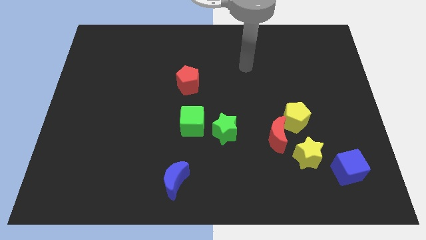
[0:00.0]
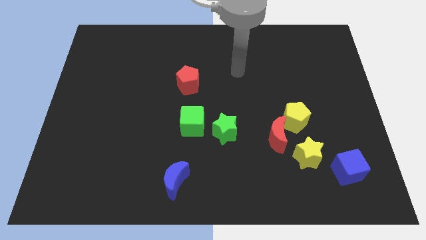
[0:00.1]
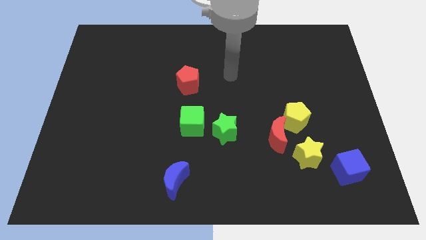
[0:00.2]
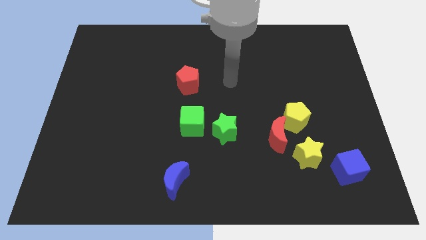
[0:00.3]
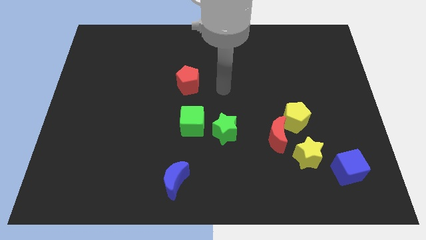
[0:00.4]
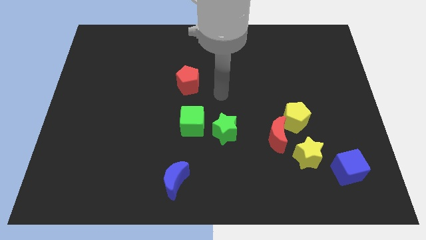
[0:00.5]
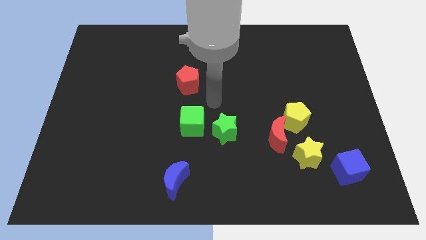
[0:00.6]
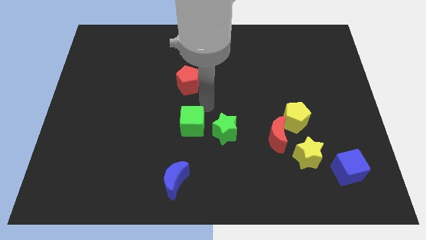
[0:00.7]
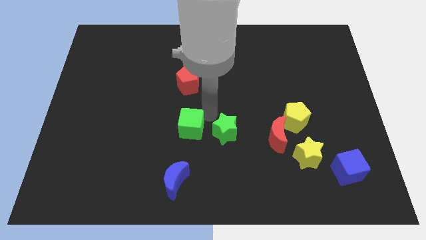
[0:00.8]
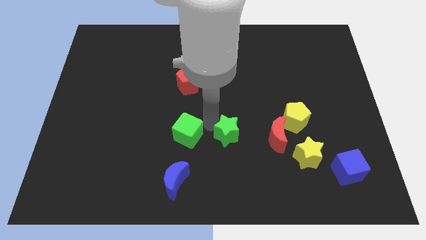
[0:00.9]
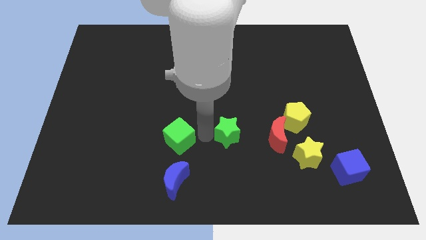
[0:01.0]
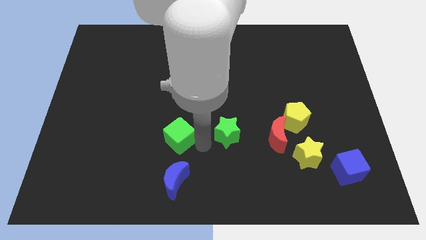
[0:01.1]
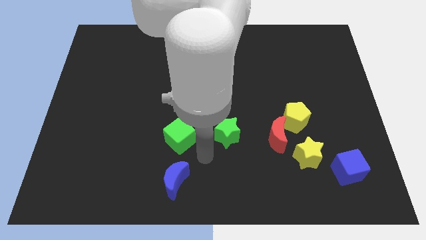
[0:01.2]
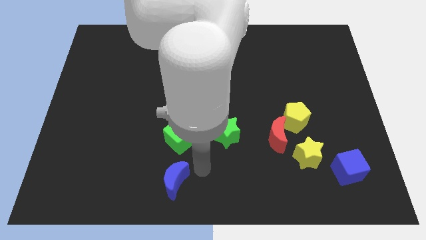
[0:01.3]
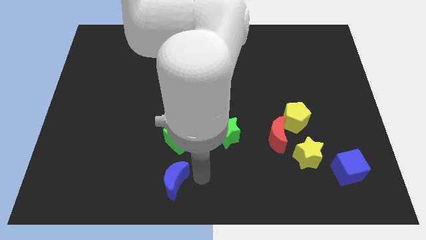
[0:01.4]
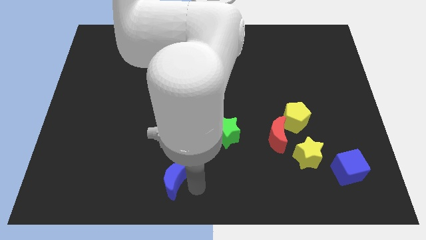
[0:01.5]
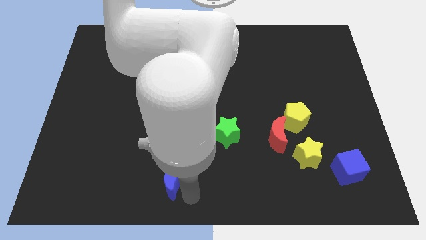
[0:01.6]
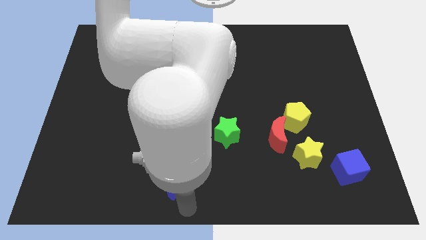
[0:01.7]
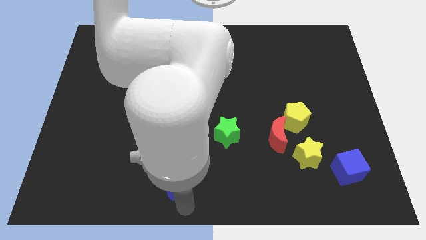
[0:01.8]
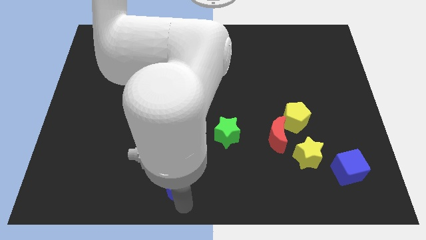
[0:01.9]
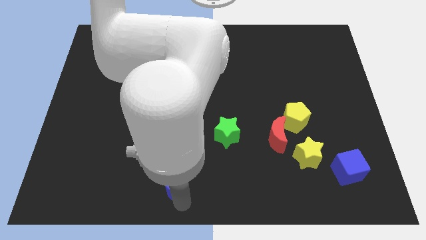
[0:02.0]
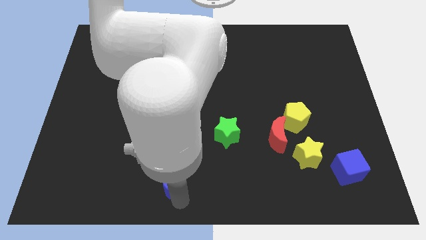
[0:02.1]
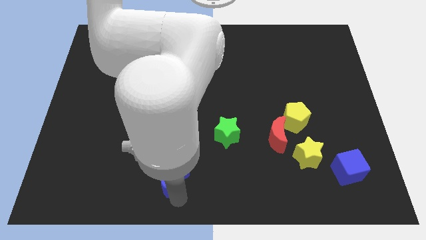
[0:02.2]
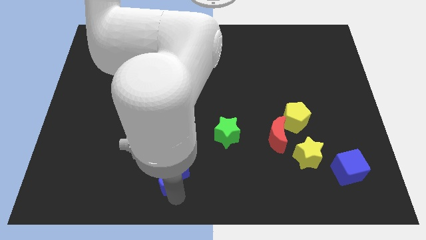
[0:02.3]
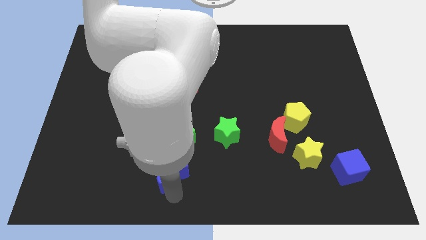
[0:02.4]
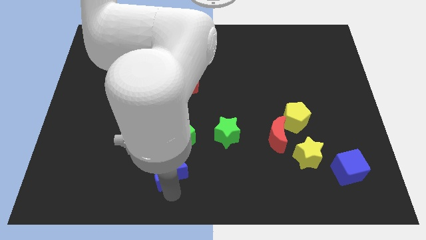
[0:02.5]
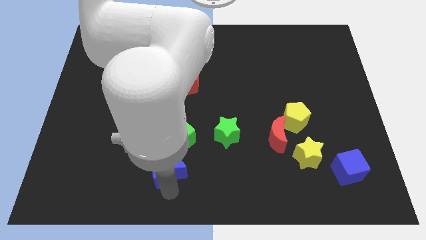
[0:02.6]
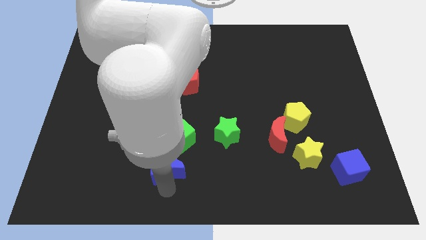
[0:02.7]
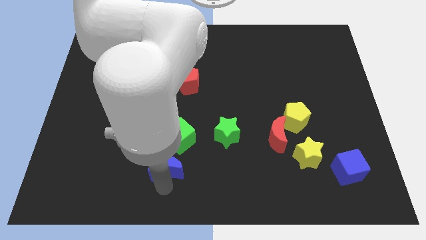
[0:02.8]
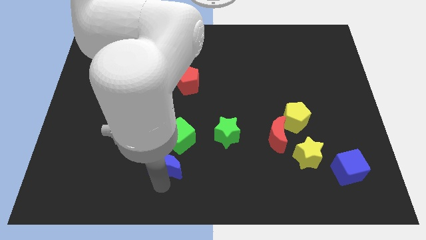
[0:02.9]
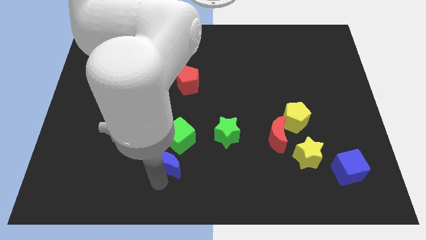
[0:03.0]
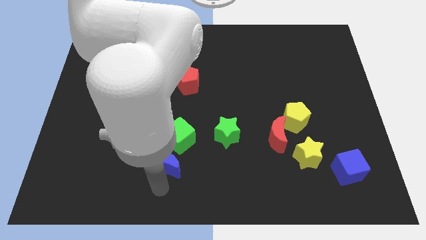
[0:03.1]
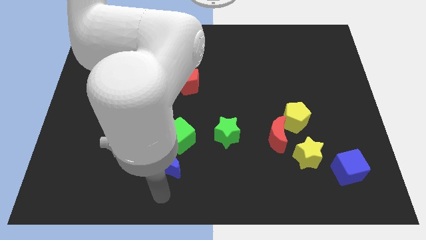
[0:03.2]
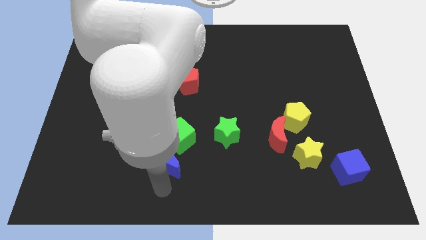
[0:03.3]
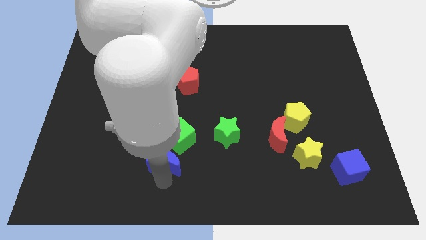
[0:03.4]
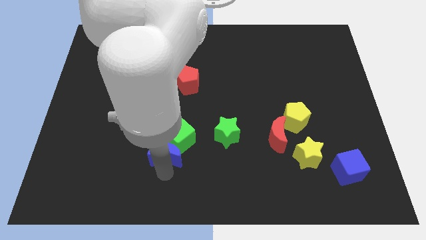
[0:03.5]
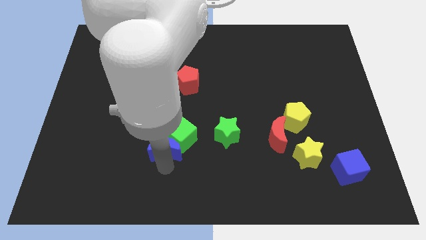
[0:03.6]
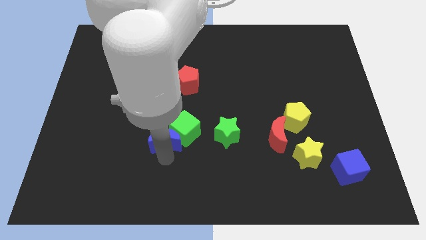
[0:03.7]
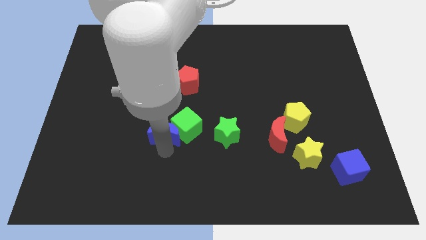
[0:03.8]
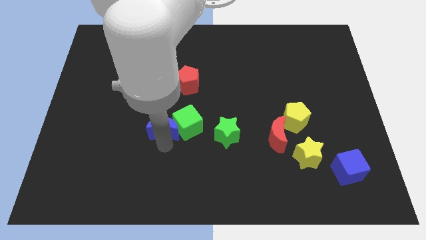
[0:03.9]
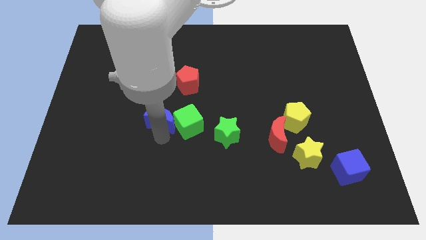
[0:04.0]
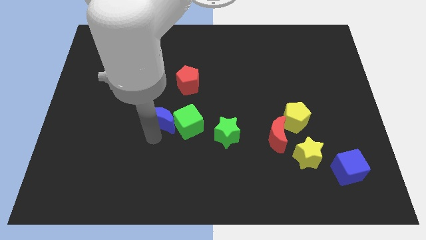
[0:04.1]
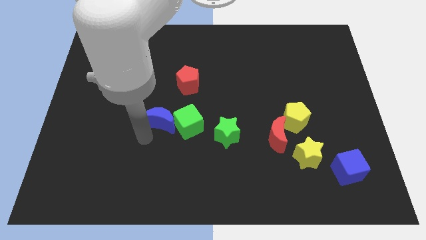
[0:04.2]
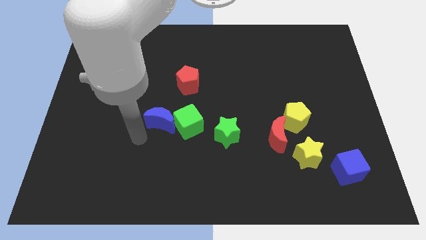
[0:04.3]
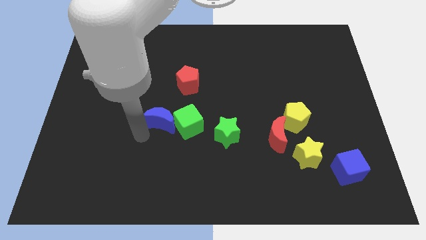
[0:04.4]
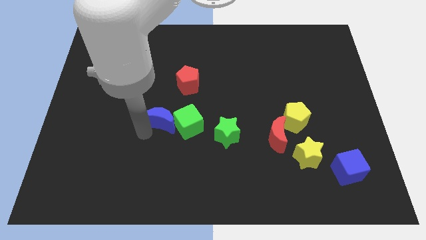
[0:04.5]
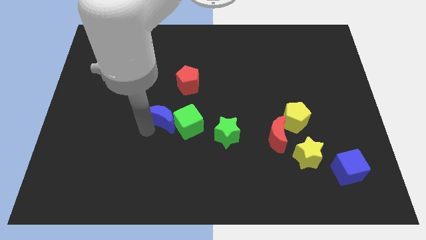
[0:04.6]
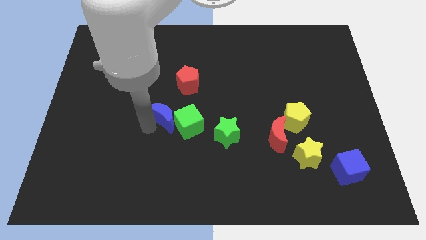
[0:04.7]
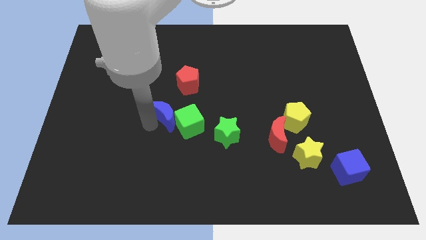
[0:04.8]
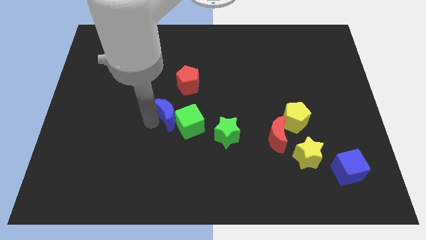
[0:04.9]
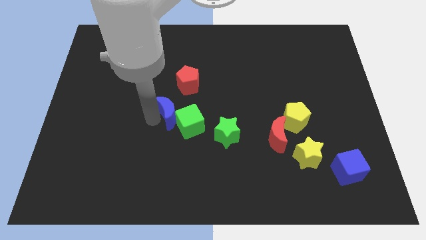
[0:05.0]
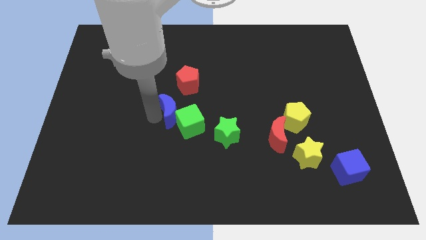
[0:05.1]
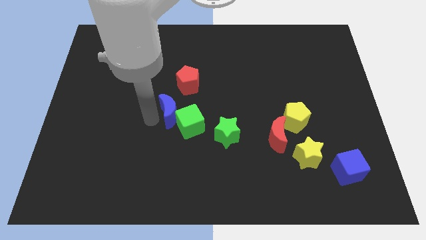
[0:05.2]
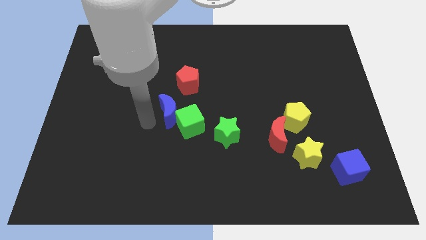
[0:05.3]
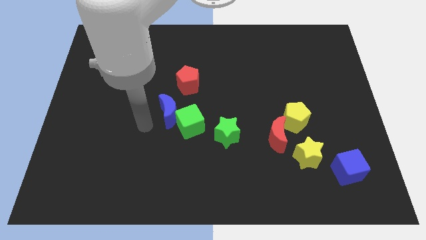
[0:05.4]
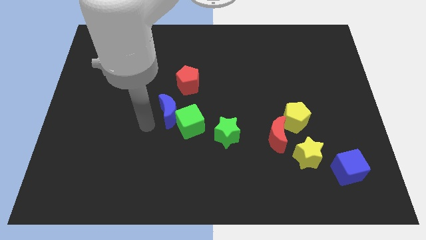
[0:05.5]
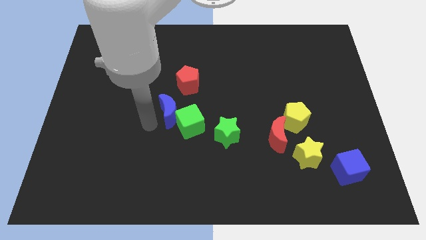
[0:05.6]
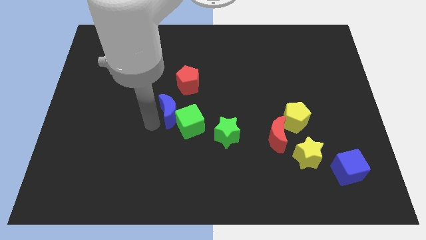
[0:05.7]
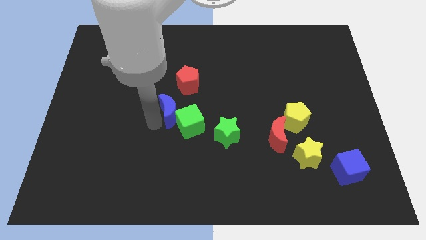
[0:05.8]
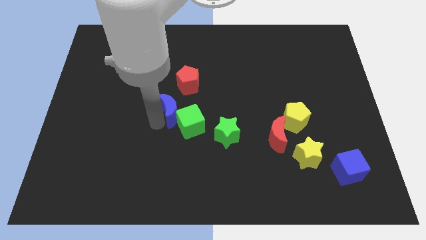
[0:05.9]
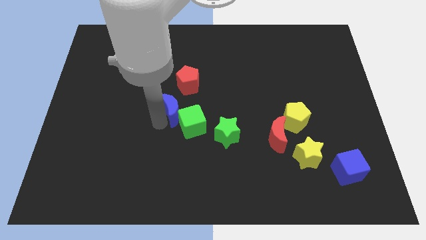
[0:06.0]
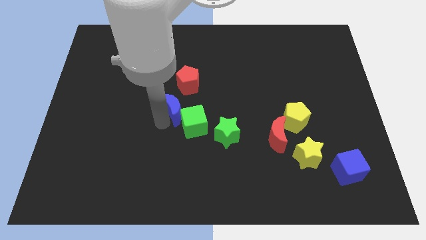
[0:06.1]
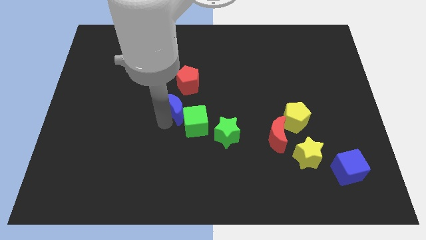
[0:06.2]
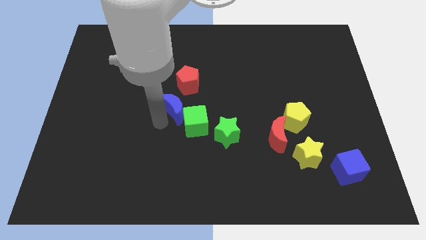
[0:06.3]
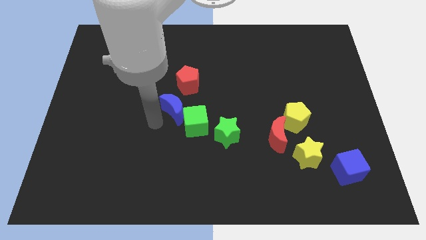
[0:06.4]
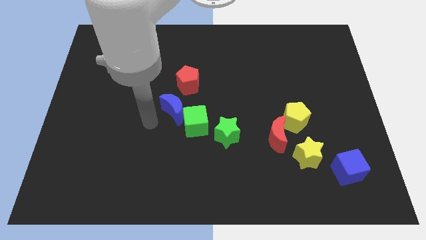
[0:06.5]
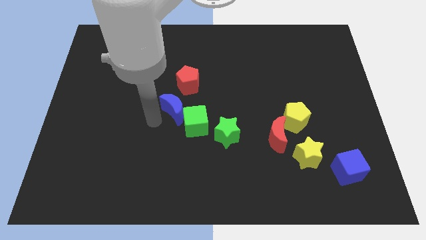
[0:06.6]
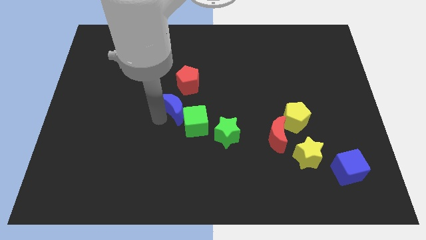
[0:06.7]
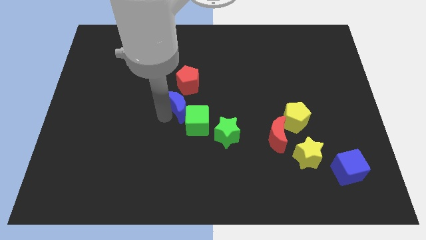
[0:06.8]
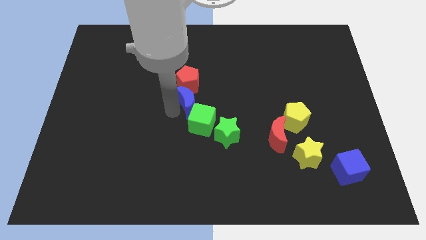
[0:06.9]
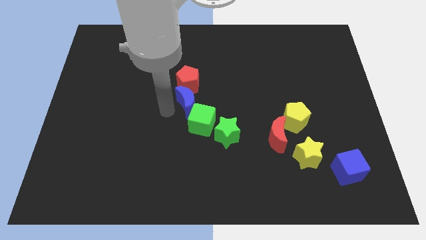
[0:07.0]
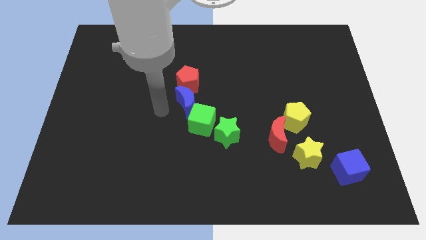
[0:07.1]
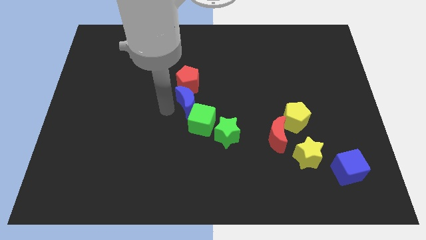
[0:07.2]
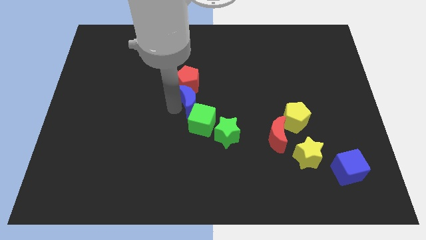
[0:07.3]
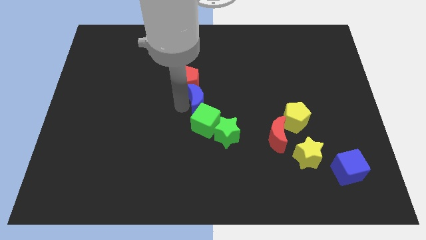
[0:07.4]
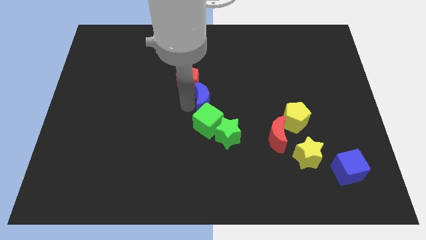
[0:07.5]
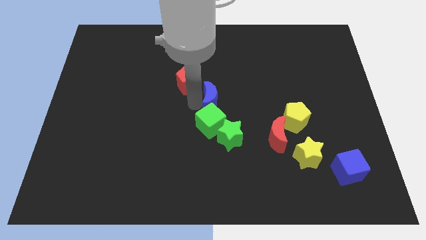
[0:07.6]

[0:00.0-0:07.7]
move the blue moon to the top of the green star
